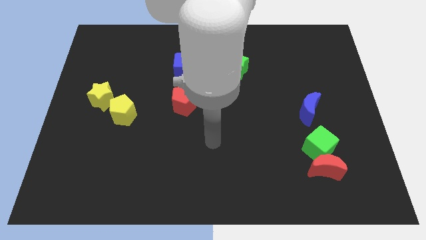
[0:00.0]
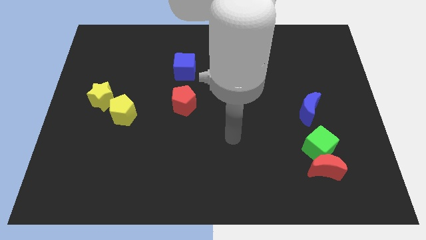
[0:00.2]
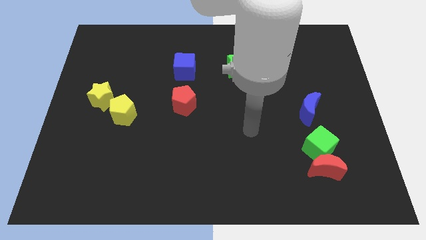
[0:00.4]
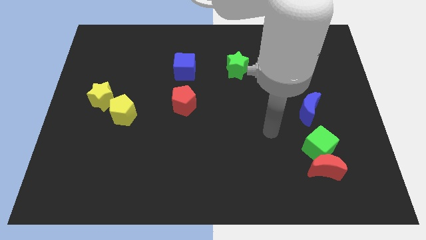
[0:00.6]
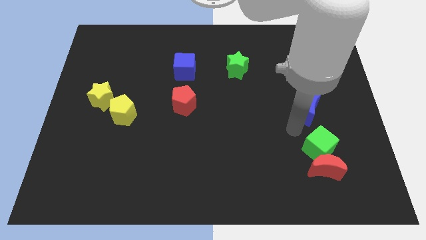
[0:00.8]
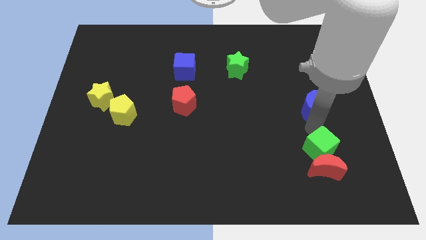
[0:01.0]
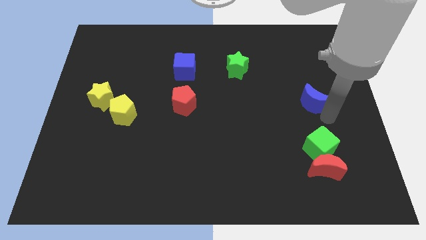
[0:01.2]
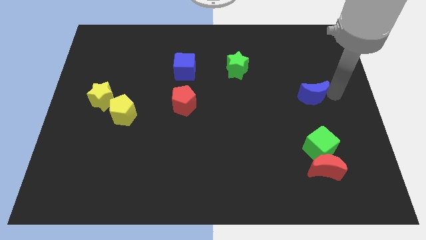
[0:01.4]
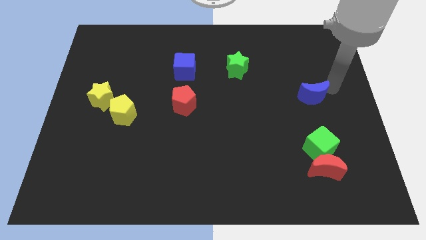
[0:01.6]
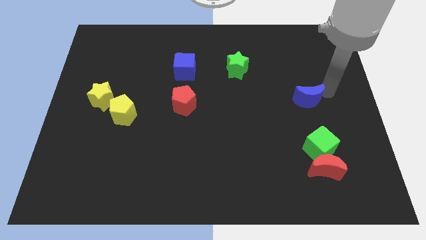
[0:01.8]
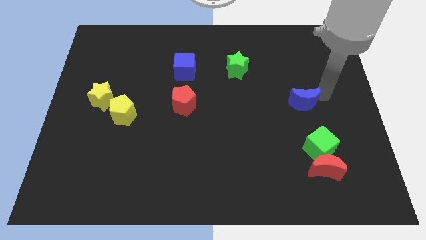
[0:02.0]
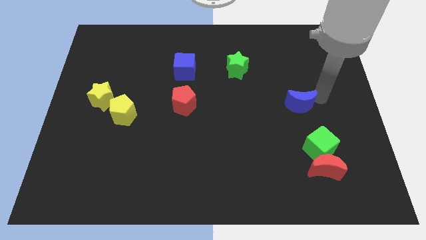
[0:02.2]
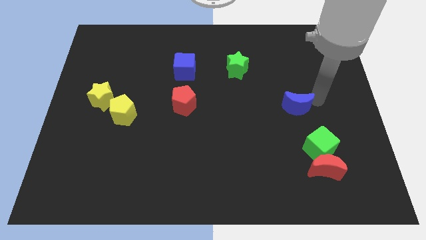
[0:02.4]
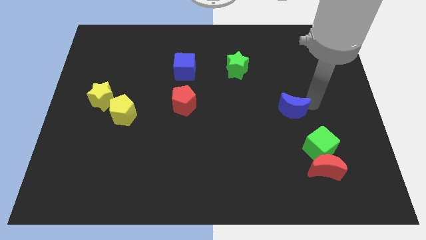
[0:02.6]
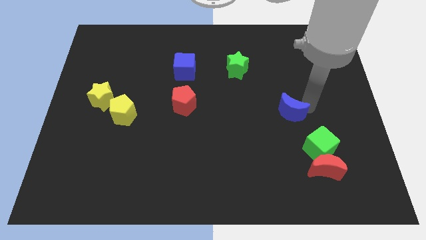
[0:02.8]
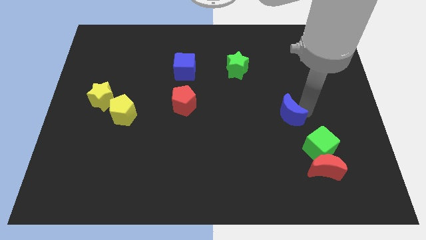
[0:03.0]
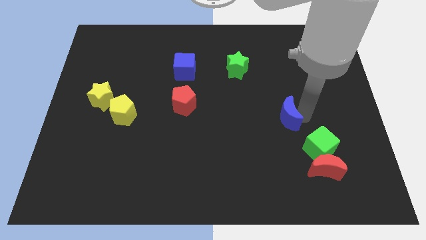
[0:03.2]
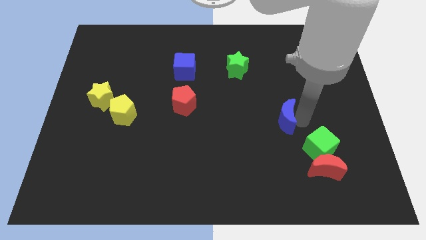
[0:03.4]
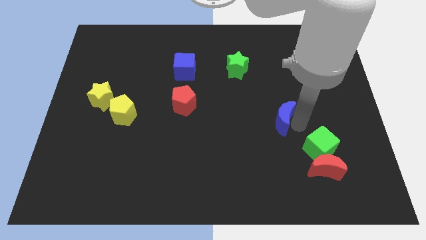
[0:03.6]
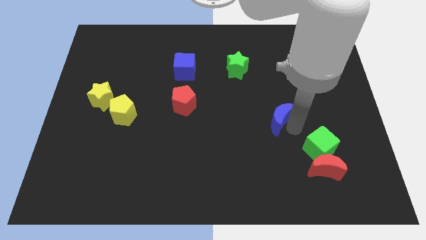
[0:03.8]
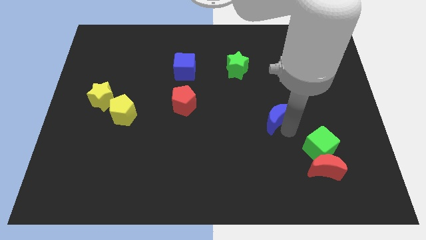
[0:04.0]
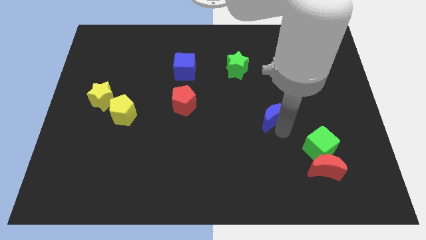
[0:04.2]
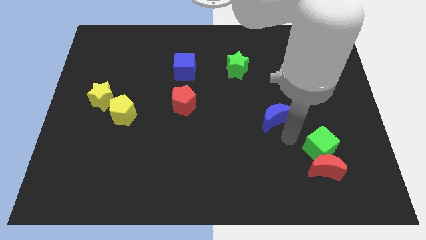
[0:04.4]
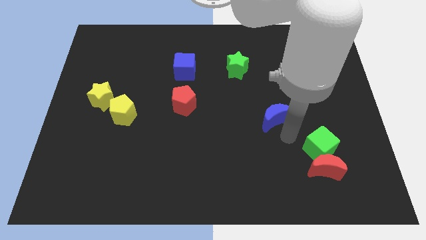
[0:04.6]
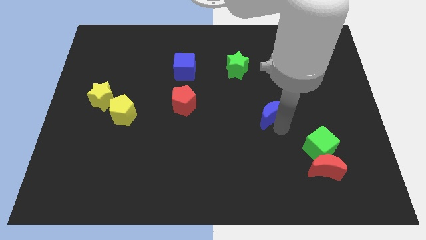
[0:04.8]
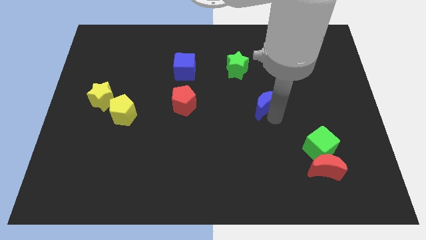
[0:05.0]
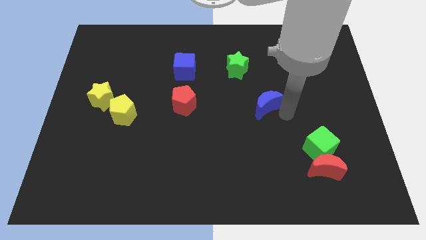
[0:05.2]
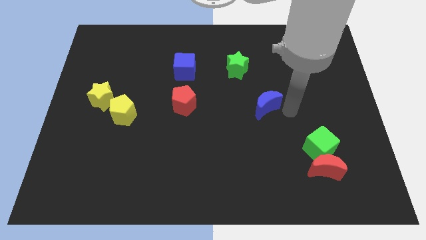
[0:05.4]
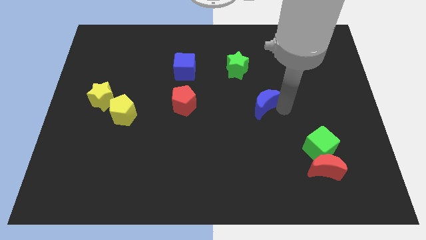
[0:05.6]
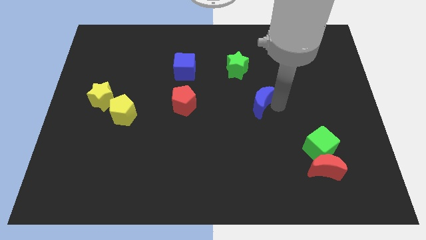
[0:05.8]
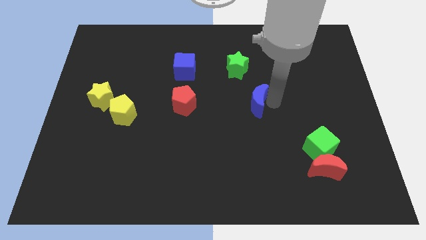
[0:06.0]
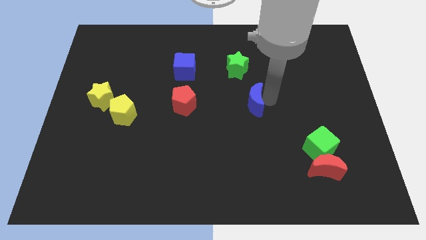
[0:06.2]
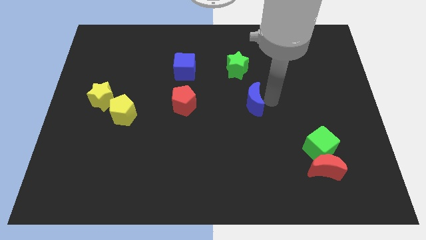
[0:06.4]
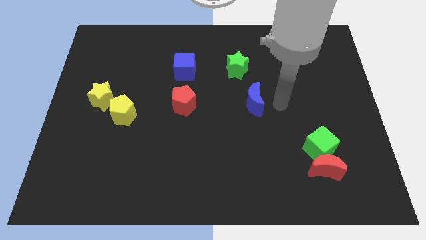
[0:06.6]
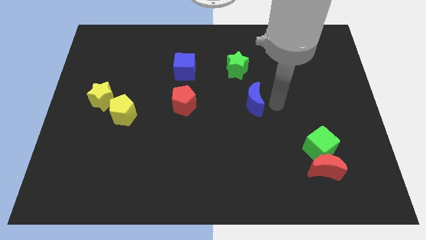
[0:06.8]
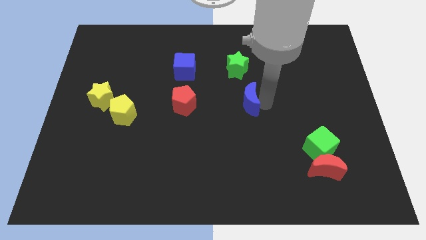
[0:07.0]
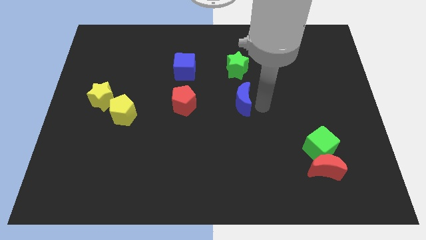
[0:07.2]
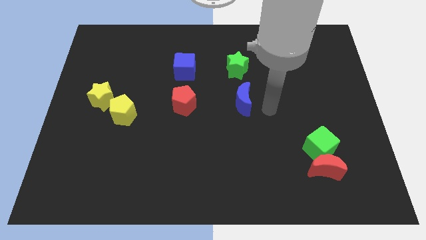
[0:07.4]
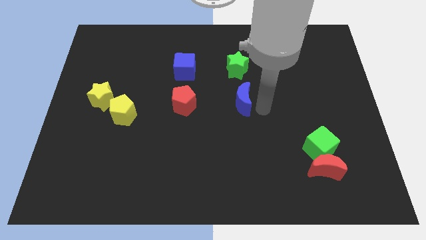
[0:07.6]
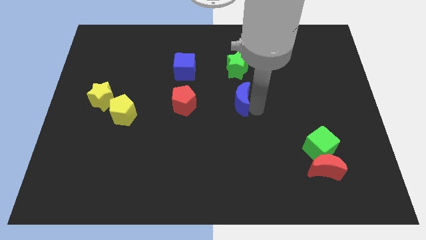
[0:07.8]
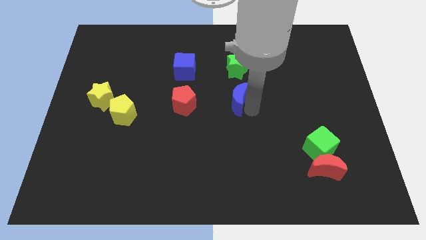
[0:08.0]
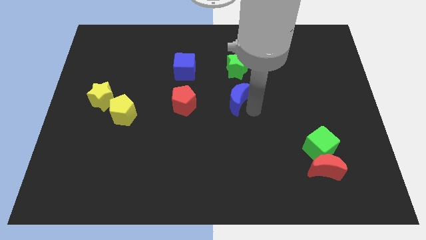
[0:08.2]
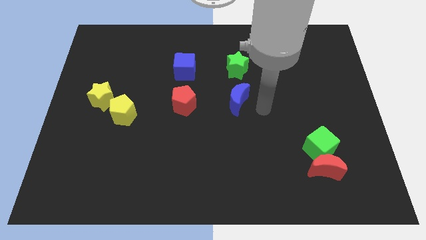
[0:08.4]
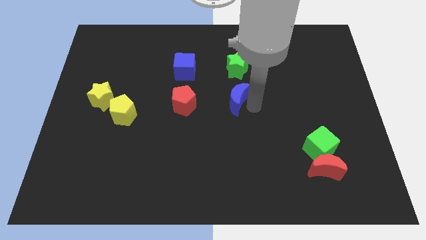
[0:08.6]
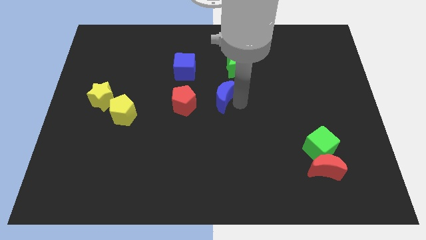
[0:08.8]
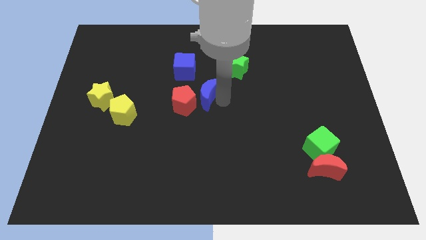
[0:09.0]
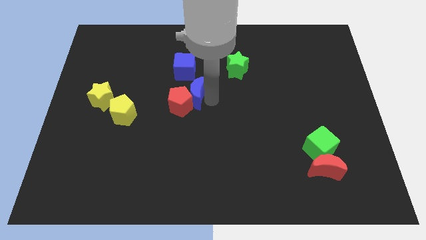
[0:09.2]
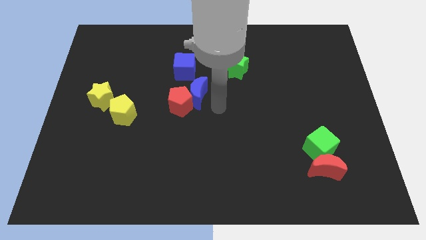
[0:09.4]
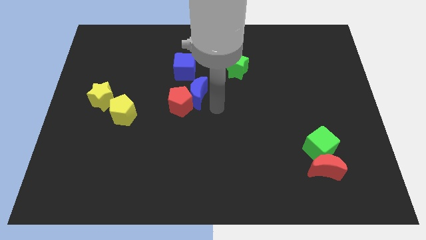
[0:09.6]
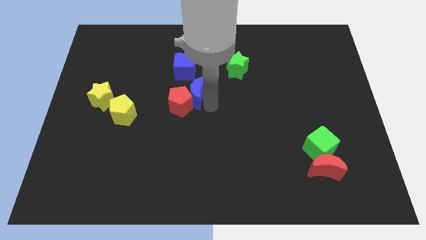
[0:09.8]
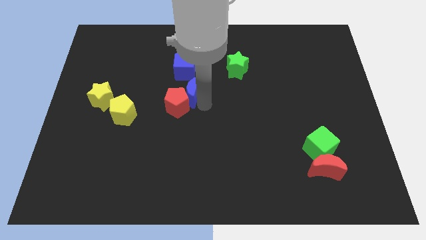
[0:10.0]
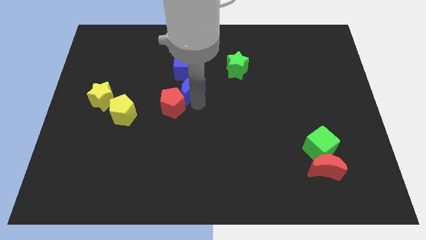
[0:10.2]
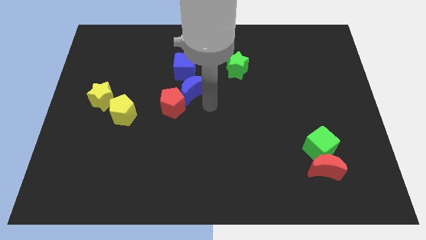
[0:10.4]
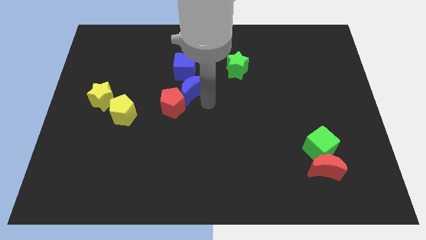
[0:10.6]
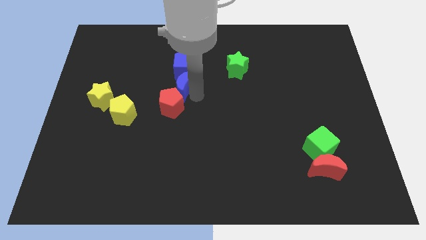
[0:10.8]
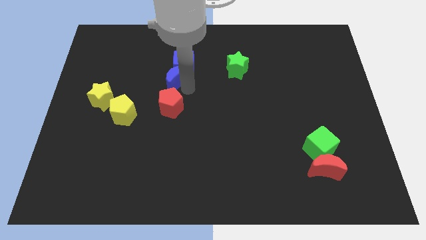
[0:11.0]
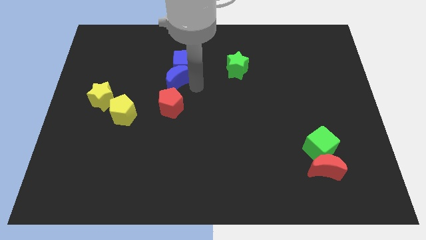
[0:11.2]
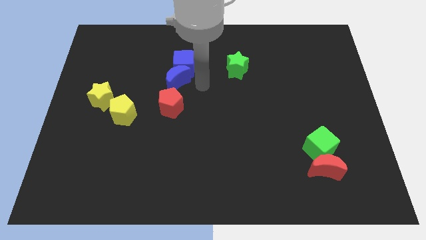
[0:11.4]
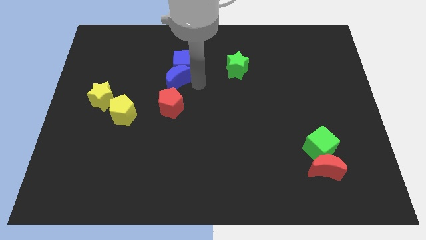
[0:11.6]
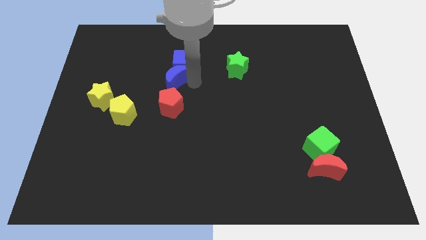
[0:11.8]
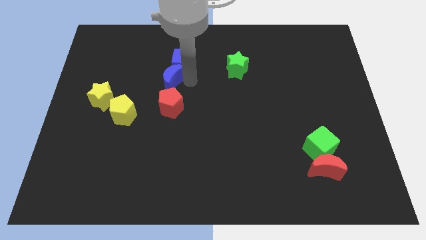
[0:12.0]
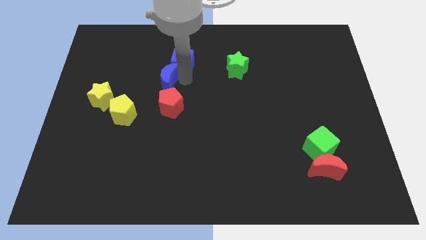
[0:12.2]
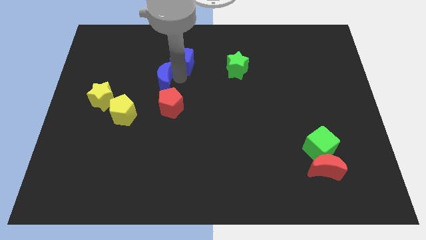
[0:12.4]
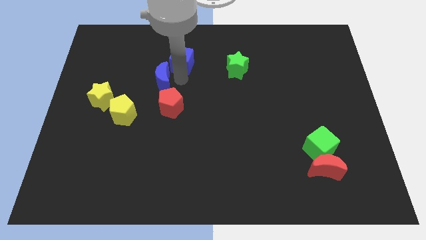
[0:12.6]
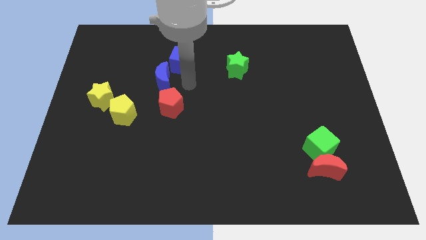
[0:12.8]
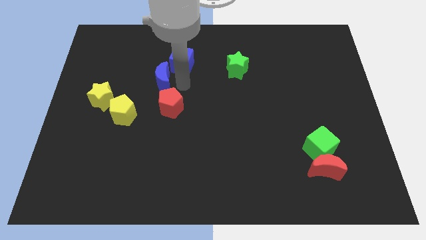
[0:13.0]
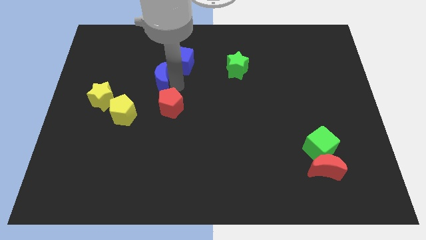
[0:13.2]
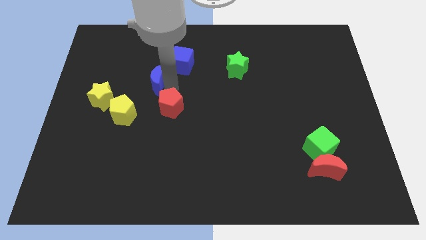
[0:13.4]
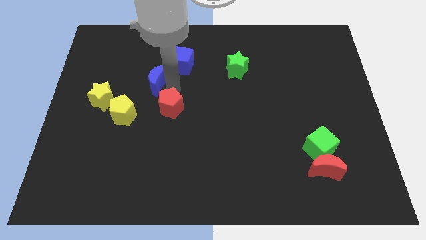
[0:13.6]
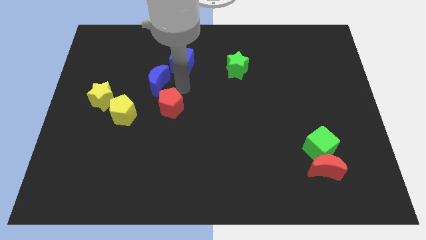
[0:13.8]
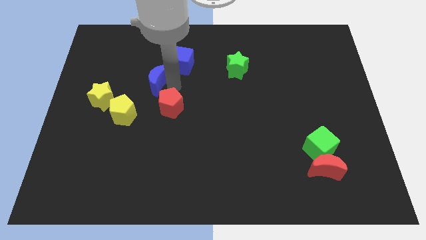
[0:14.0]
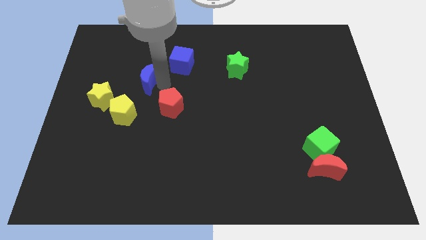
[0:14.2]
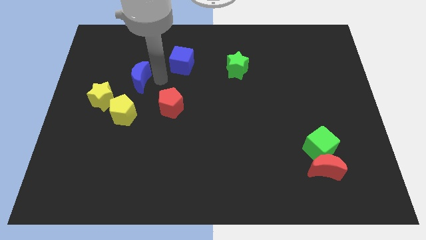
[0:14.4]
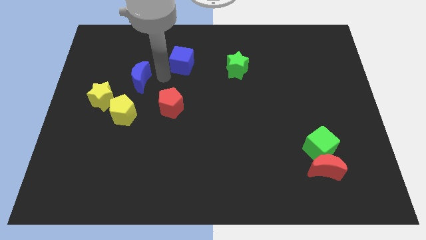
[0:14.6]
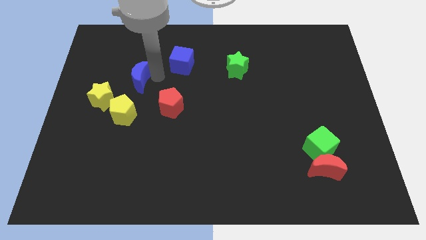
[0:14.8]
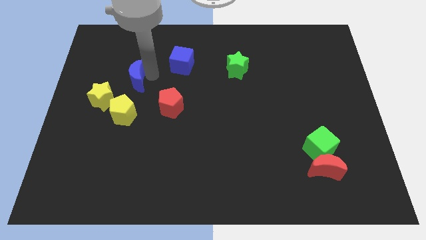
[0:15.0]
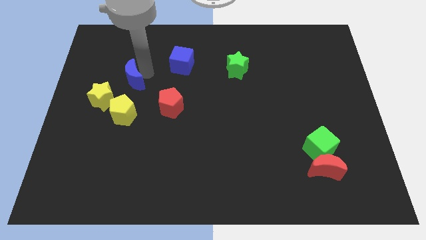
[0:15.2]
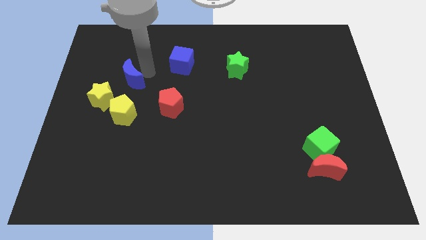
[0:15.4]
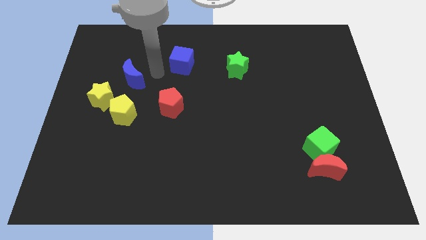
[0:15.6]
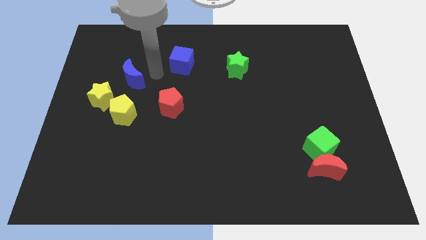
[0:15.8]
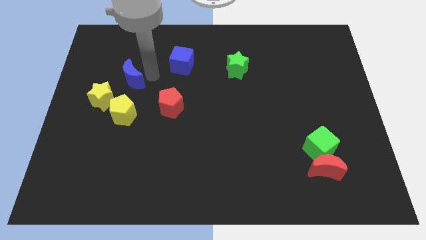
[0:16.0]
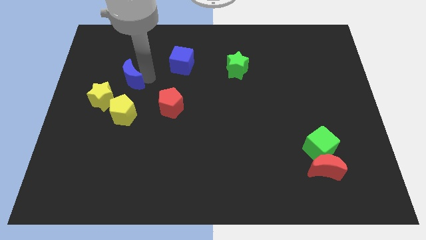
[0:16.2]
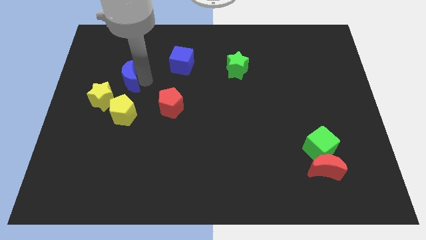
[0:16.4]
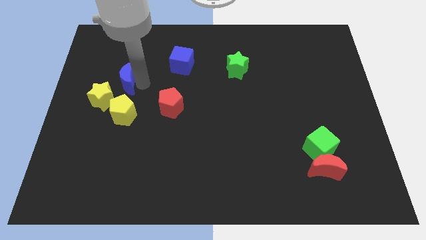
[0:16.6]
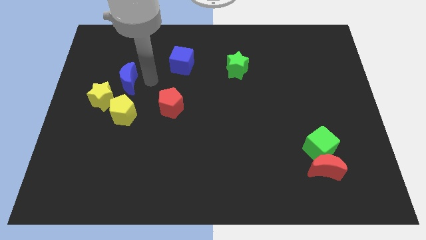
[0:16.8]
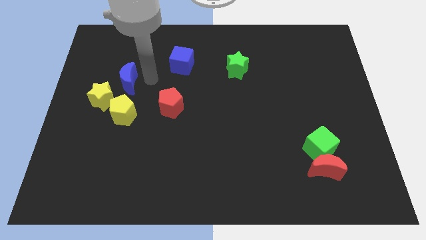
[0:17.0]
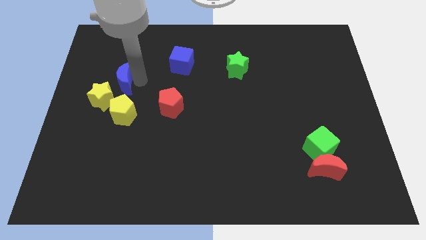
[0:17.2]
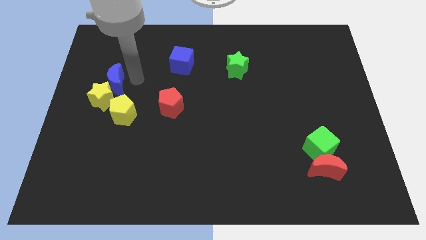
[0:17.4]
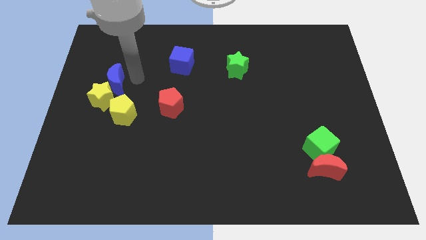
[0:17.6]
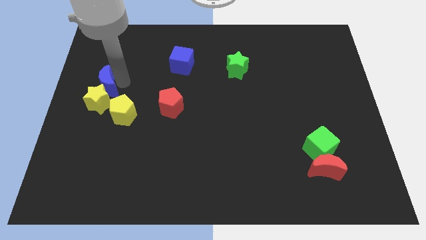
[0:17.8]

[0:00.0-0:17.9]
push the blue moon to the left side of the board
